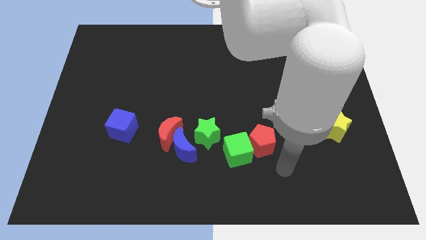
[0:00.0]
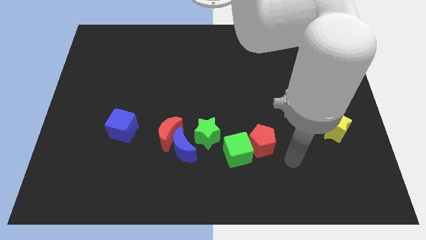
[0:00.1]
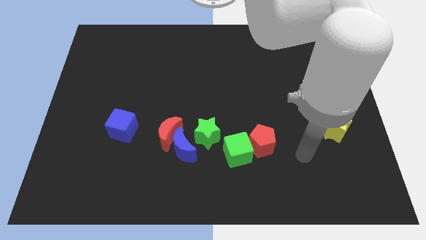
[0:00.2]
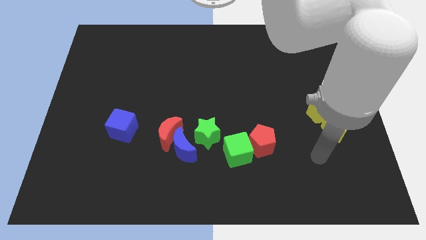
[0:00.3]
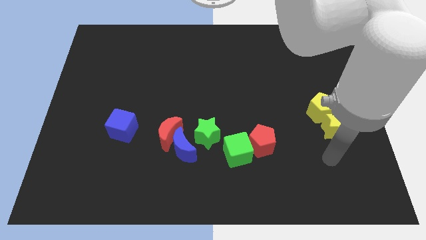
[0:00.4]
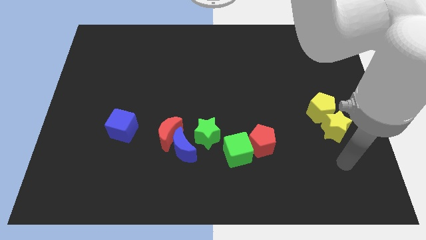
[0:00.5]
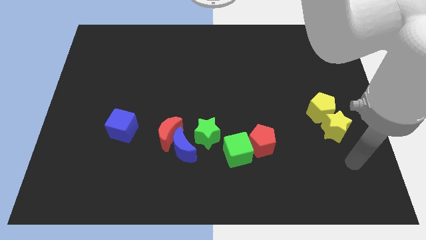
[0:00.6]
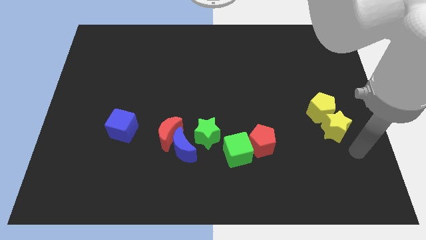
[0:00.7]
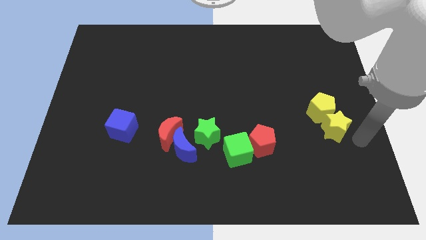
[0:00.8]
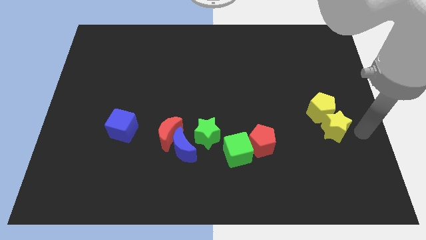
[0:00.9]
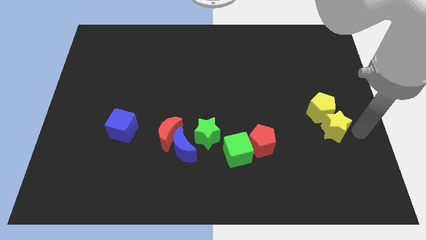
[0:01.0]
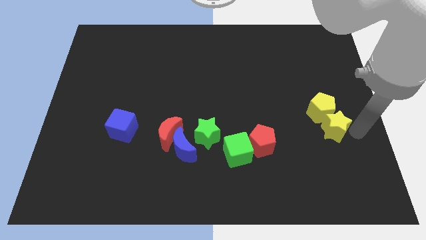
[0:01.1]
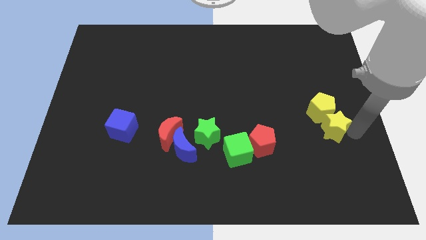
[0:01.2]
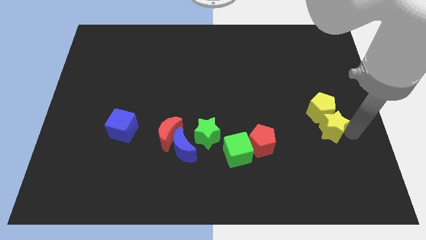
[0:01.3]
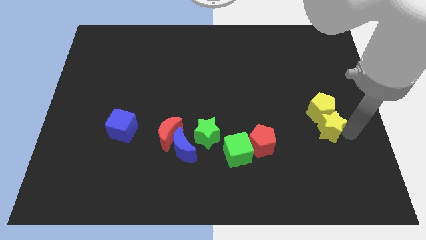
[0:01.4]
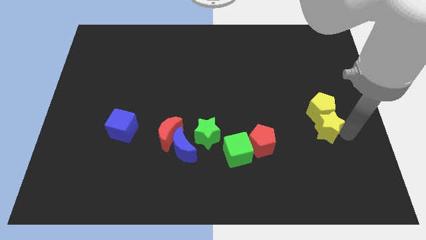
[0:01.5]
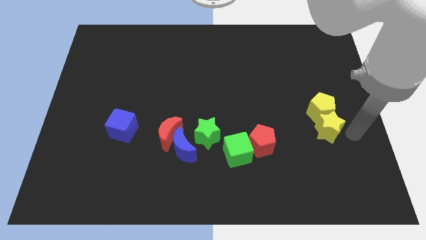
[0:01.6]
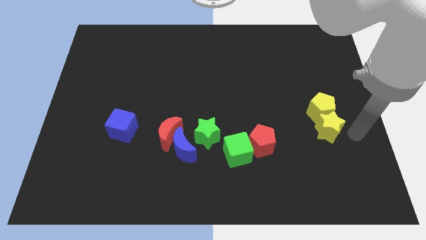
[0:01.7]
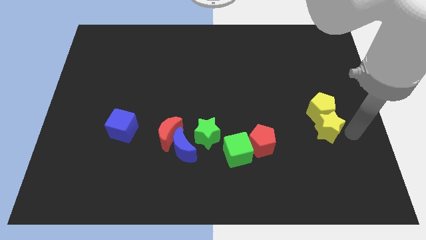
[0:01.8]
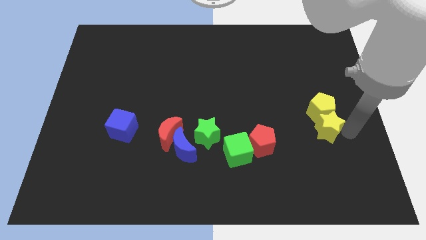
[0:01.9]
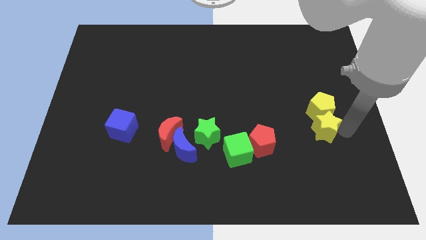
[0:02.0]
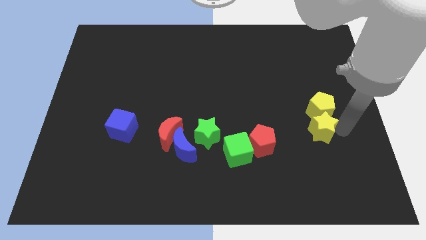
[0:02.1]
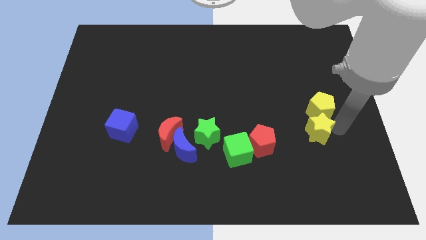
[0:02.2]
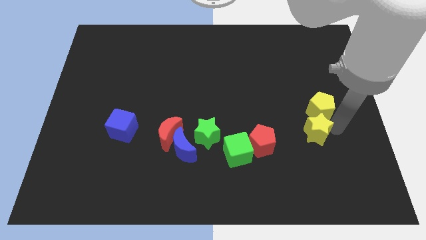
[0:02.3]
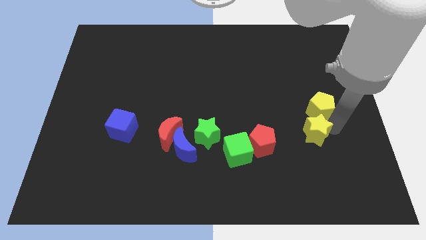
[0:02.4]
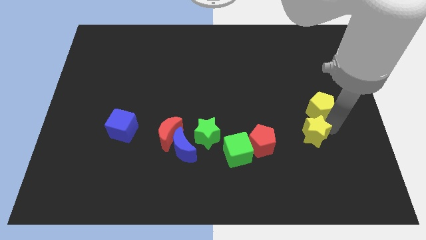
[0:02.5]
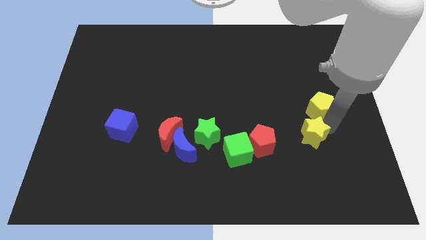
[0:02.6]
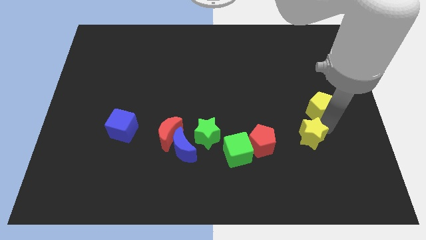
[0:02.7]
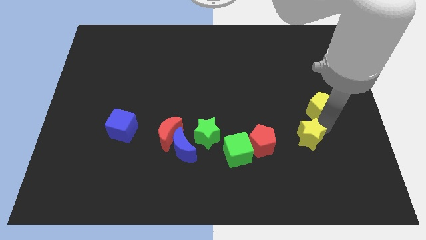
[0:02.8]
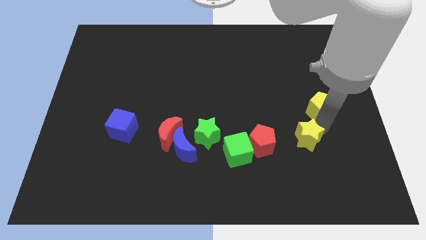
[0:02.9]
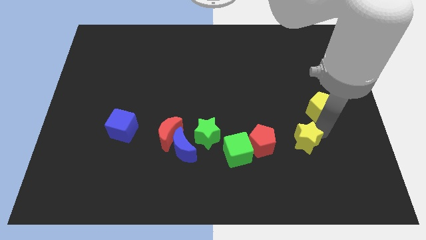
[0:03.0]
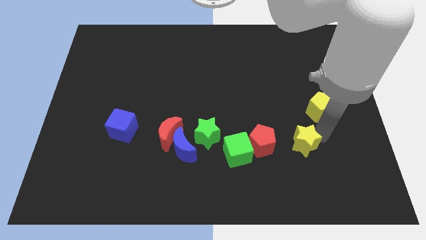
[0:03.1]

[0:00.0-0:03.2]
slightly move the yellow star to the left

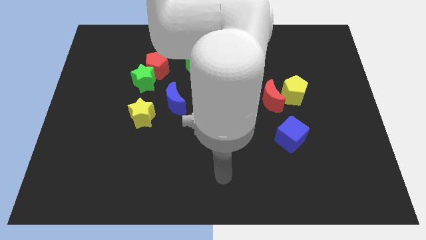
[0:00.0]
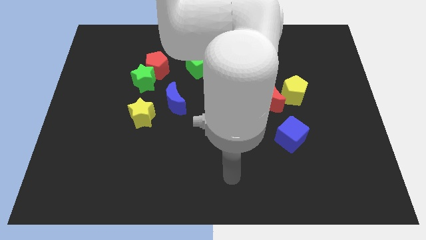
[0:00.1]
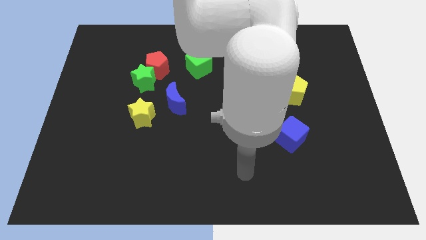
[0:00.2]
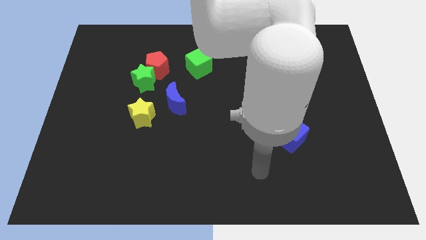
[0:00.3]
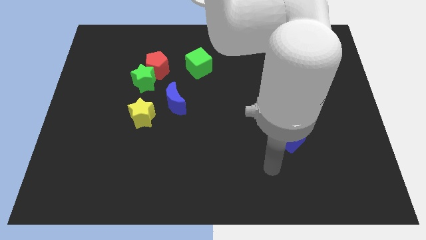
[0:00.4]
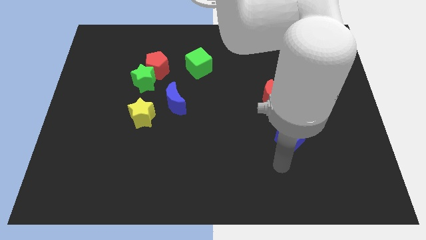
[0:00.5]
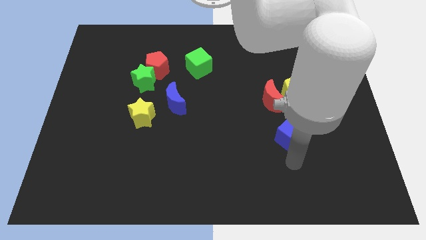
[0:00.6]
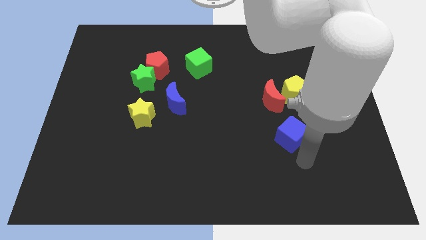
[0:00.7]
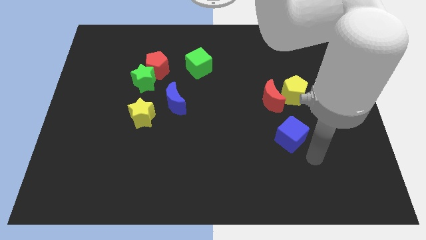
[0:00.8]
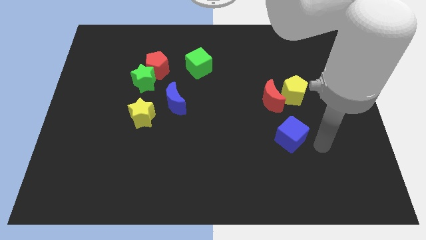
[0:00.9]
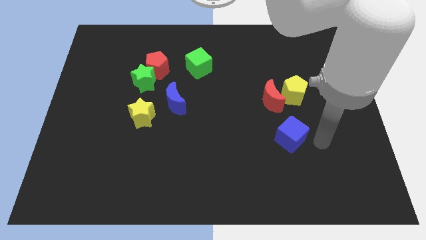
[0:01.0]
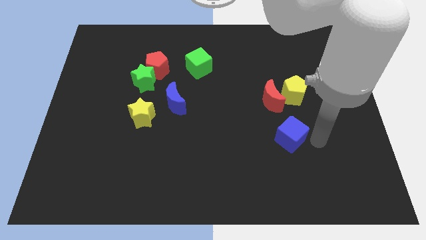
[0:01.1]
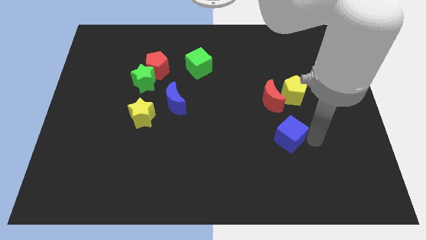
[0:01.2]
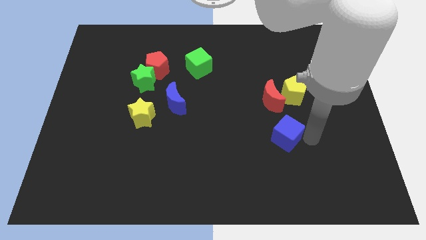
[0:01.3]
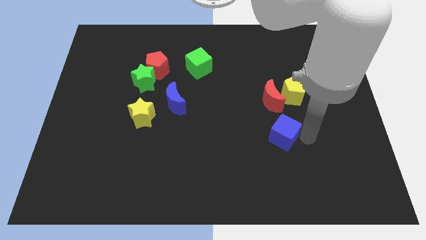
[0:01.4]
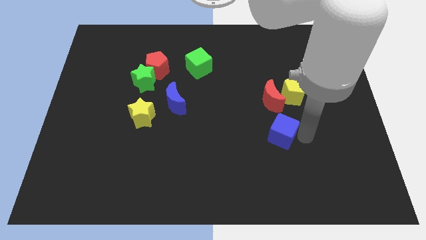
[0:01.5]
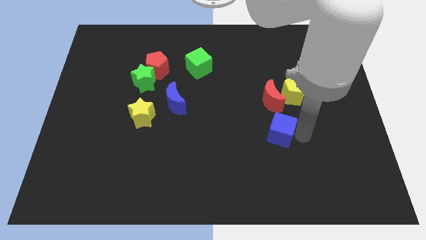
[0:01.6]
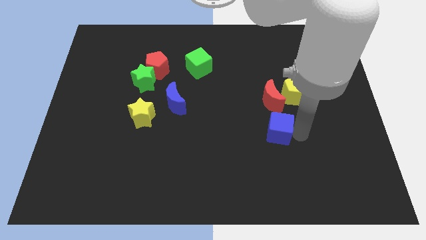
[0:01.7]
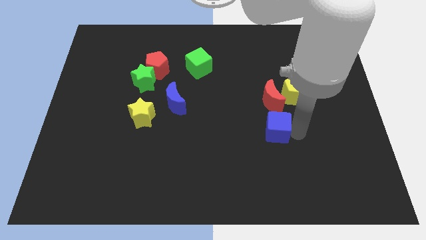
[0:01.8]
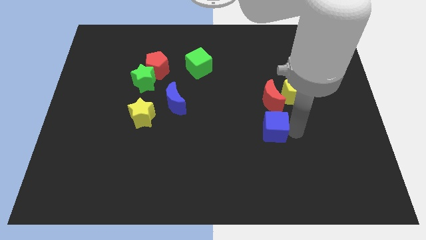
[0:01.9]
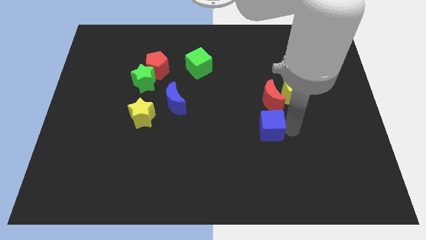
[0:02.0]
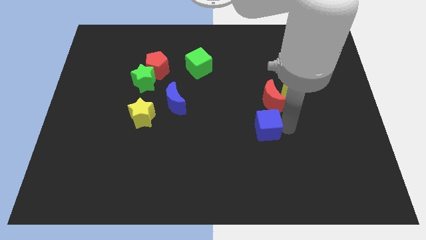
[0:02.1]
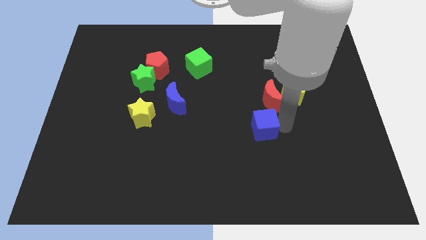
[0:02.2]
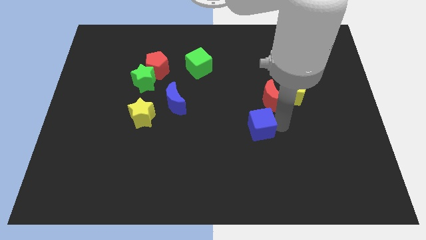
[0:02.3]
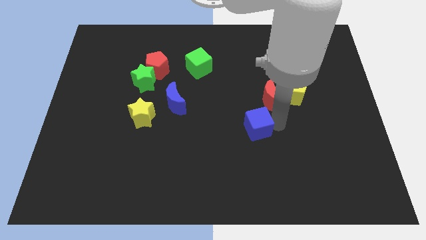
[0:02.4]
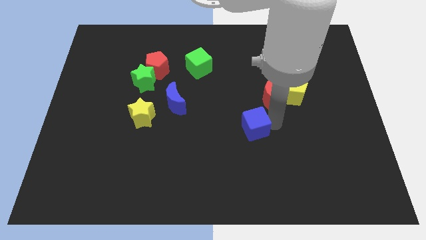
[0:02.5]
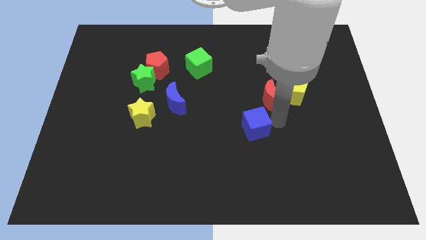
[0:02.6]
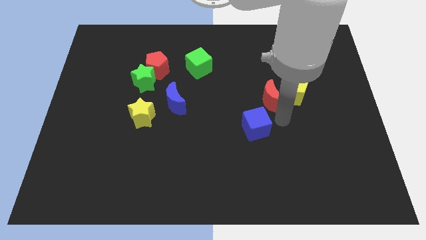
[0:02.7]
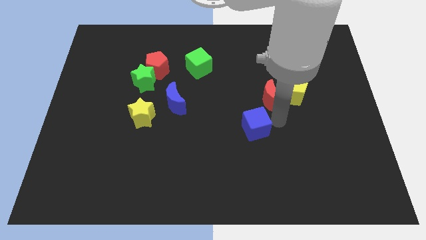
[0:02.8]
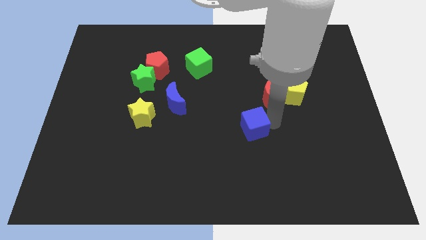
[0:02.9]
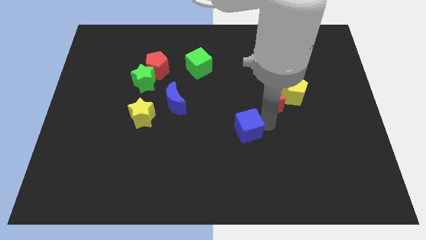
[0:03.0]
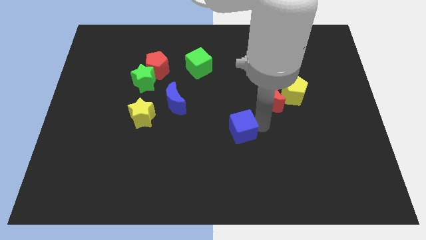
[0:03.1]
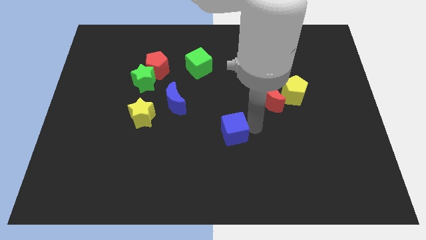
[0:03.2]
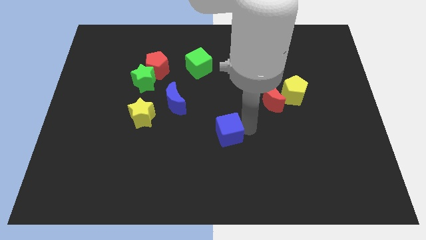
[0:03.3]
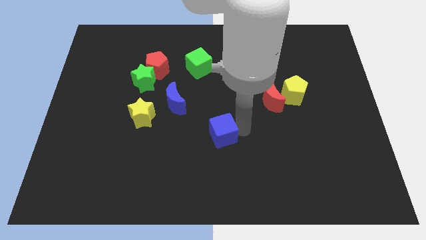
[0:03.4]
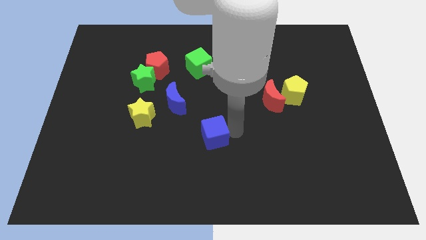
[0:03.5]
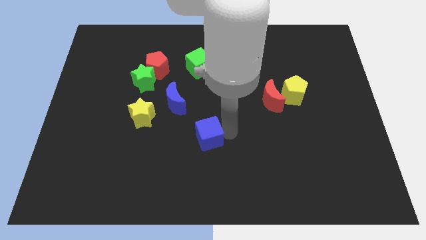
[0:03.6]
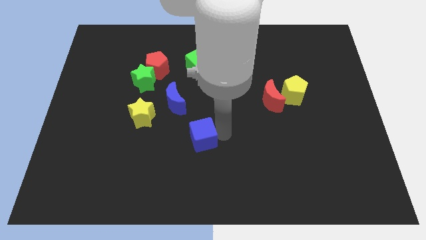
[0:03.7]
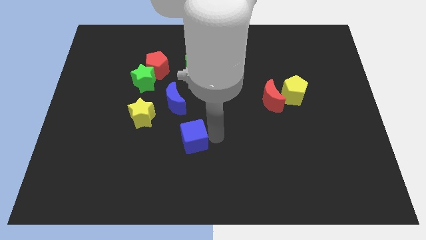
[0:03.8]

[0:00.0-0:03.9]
push the blue cube left

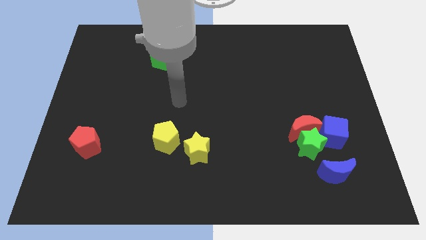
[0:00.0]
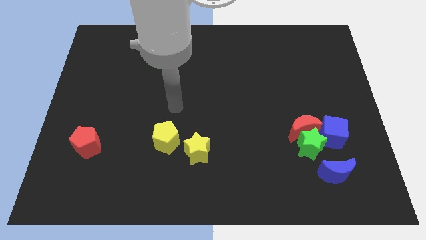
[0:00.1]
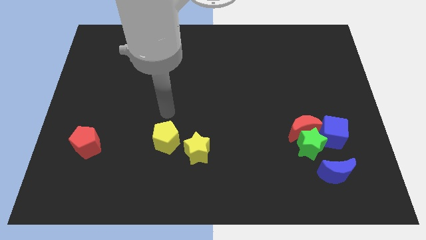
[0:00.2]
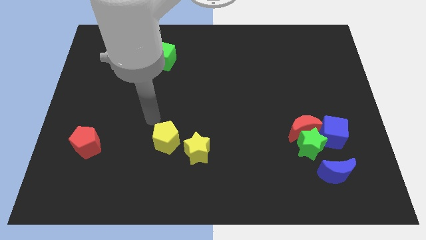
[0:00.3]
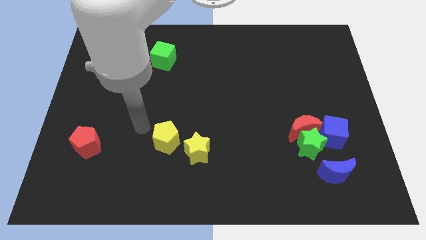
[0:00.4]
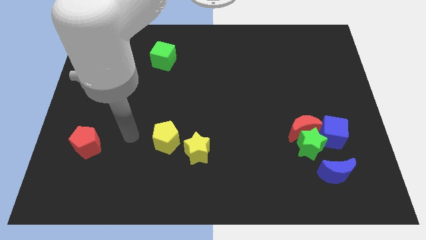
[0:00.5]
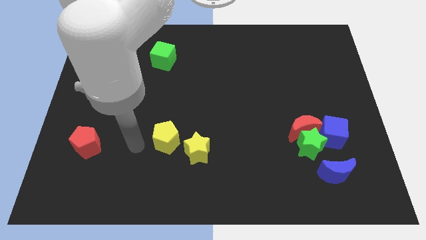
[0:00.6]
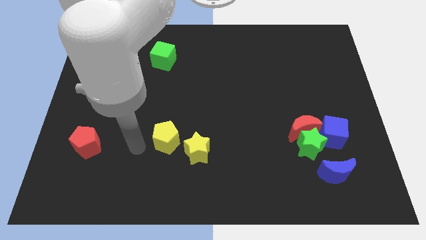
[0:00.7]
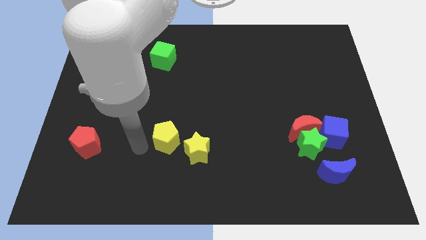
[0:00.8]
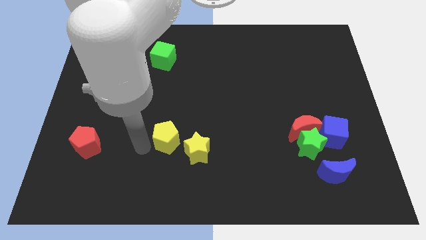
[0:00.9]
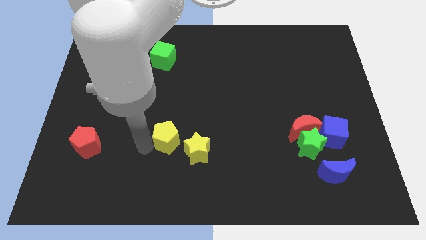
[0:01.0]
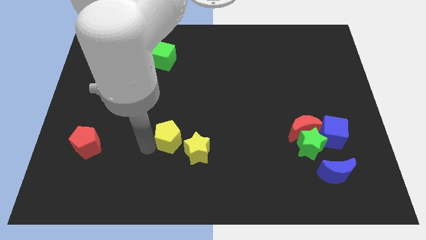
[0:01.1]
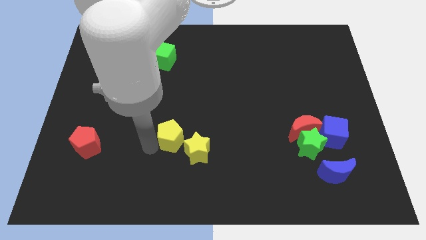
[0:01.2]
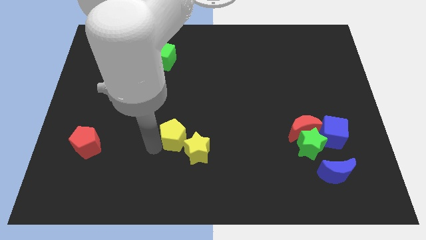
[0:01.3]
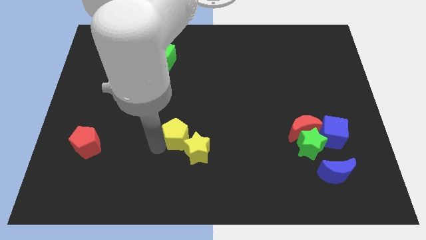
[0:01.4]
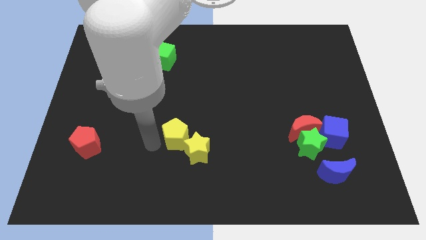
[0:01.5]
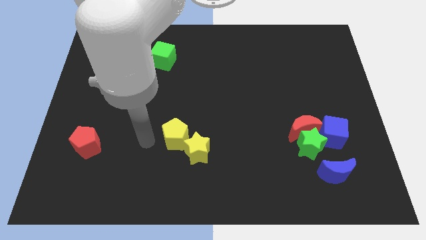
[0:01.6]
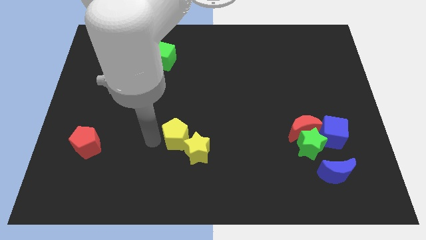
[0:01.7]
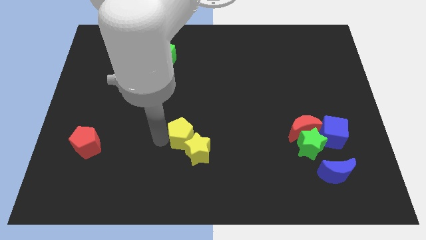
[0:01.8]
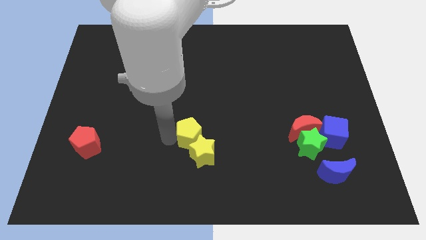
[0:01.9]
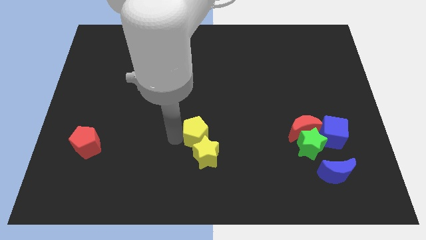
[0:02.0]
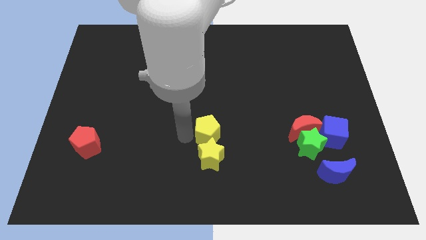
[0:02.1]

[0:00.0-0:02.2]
slightly move the yellow pentagon to the right
